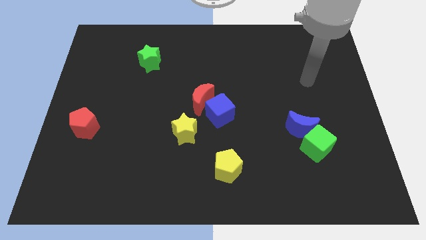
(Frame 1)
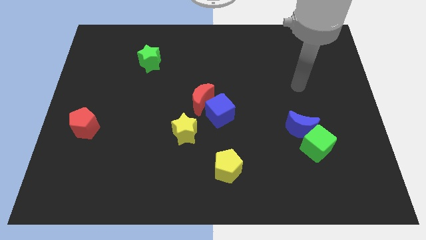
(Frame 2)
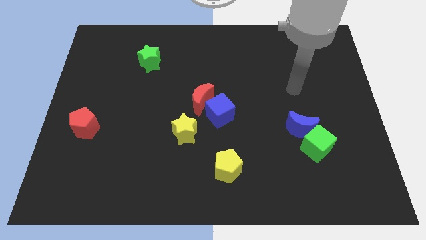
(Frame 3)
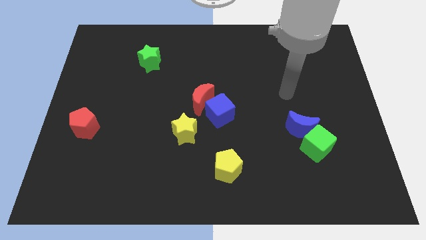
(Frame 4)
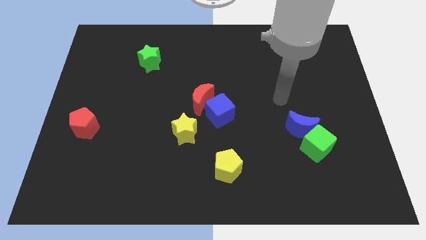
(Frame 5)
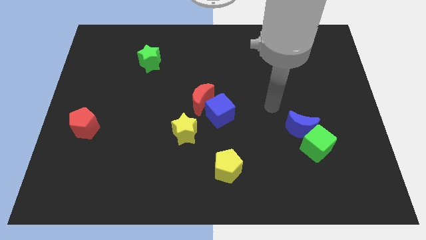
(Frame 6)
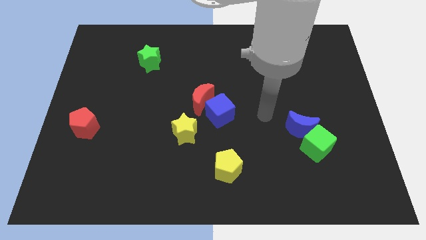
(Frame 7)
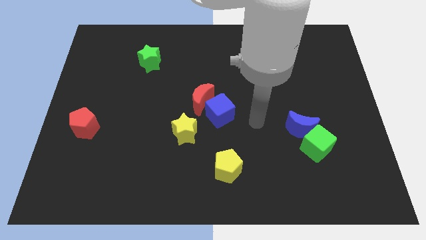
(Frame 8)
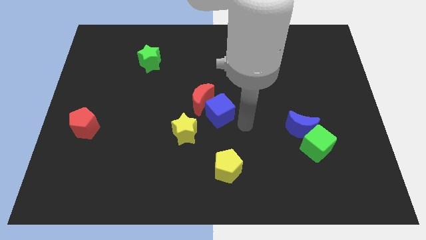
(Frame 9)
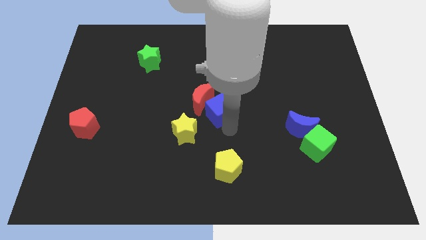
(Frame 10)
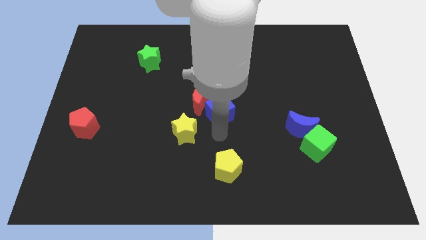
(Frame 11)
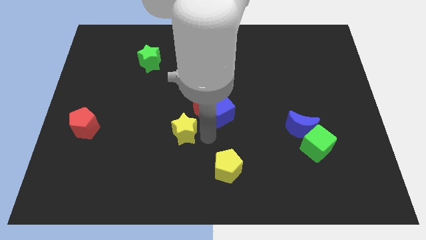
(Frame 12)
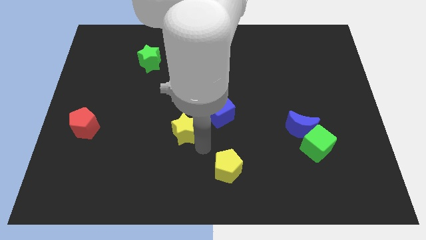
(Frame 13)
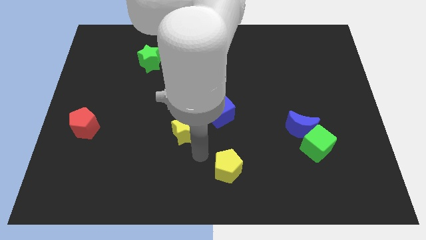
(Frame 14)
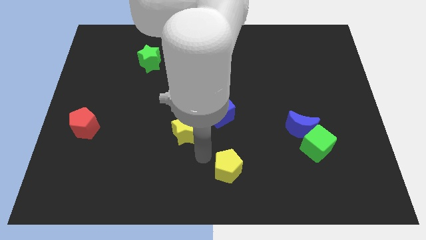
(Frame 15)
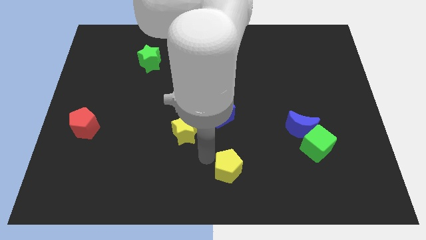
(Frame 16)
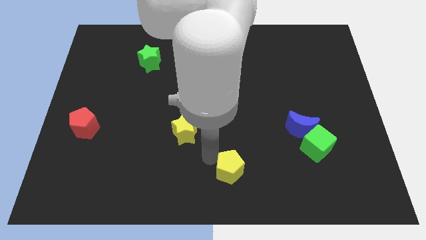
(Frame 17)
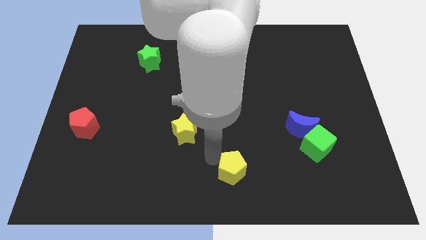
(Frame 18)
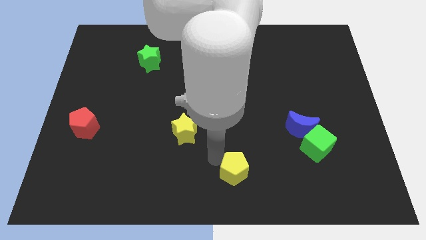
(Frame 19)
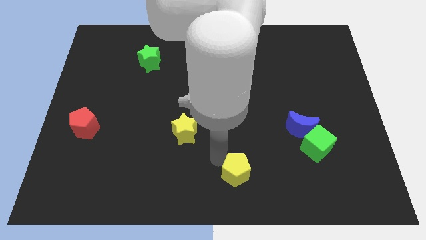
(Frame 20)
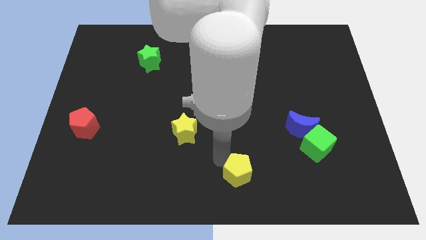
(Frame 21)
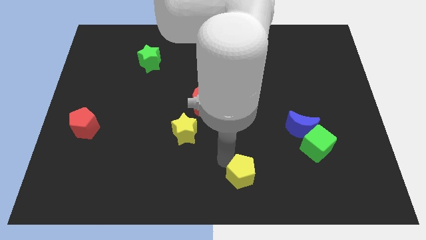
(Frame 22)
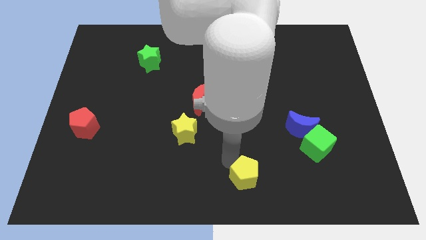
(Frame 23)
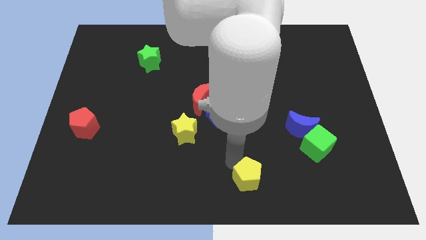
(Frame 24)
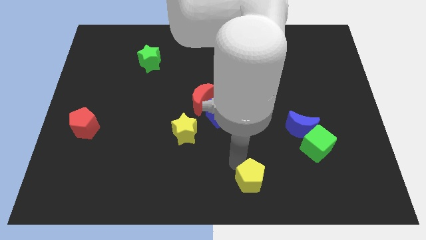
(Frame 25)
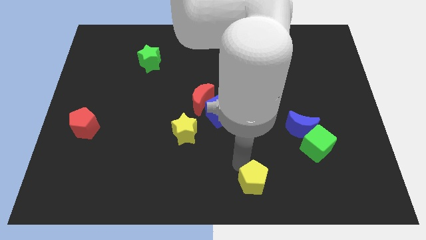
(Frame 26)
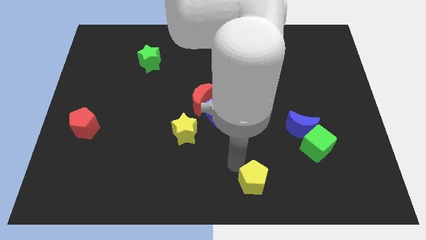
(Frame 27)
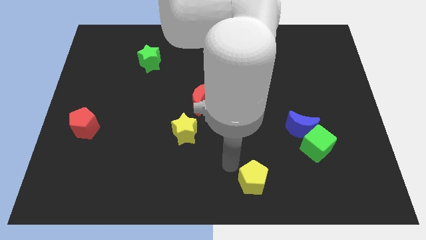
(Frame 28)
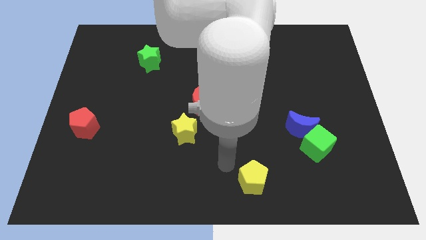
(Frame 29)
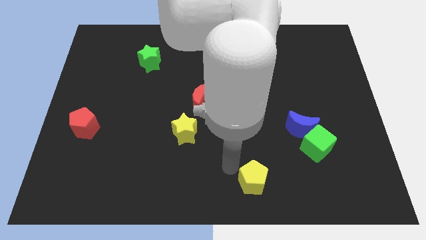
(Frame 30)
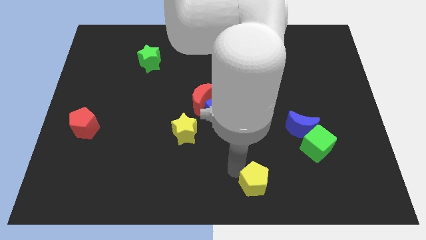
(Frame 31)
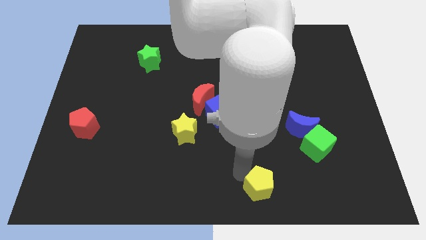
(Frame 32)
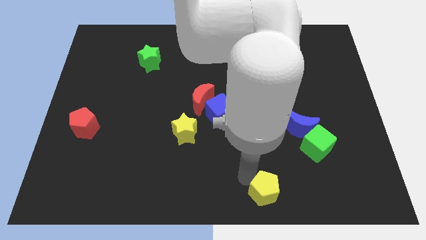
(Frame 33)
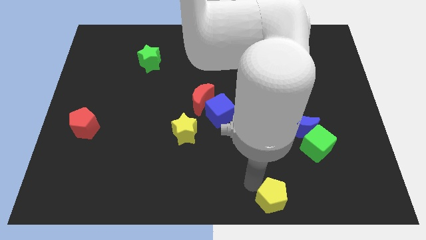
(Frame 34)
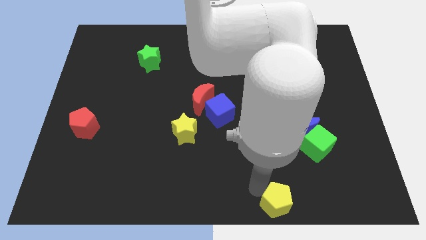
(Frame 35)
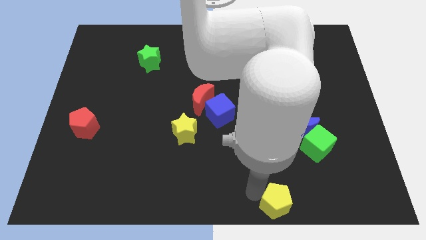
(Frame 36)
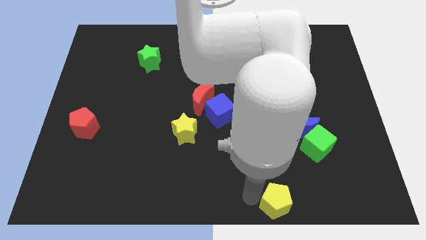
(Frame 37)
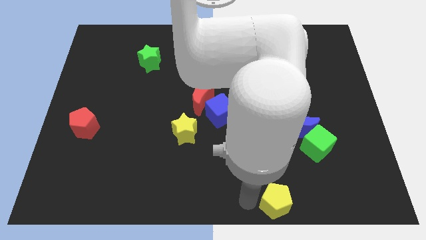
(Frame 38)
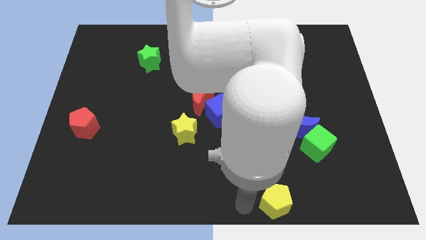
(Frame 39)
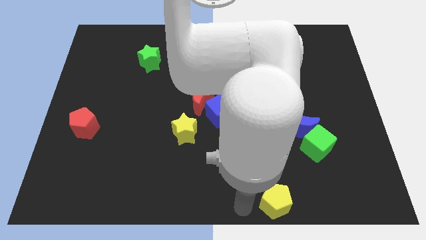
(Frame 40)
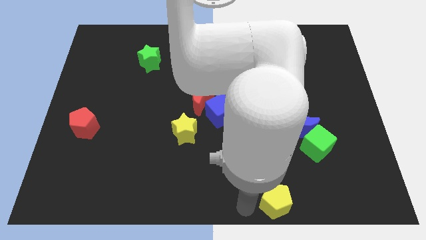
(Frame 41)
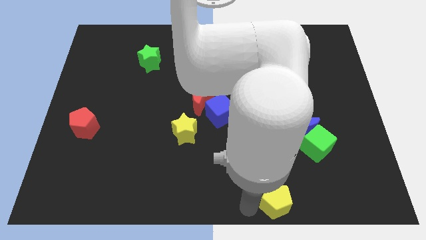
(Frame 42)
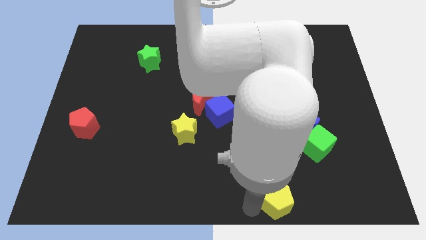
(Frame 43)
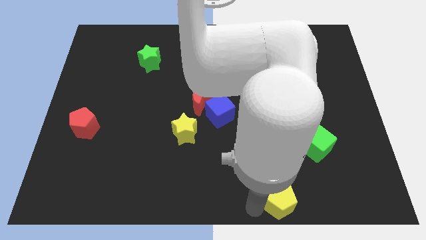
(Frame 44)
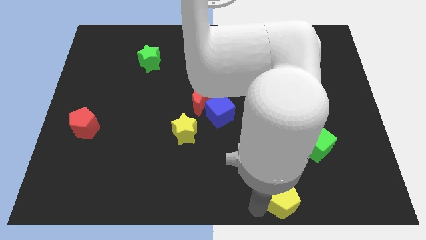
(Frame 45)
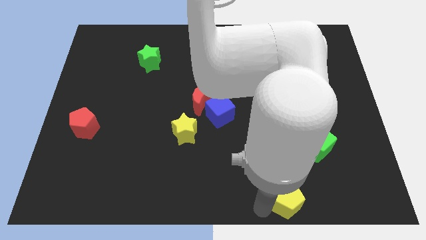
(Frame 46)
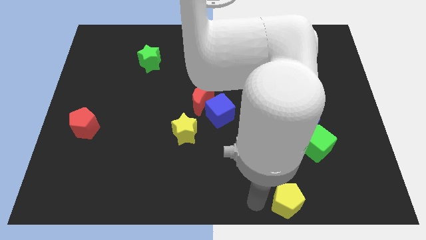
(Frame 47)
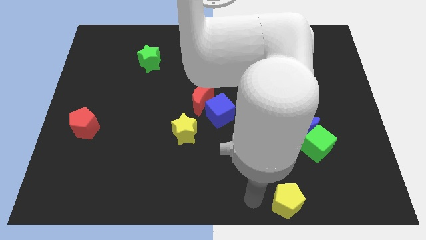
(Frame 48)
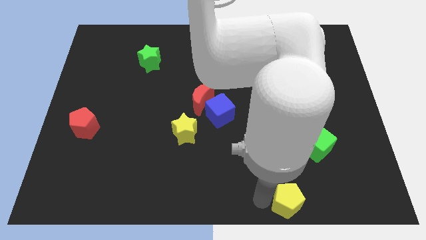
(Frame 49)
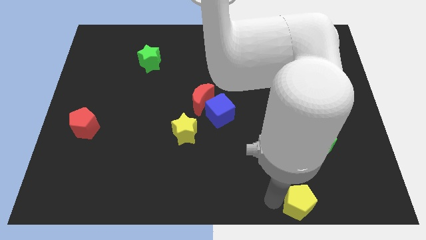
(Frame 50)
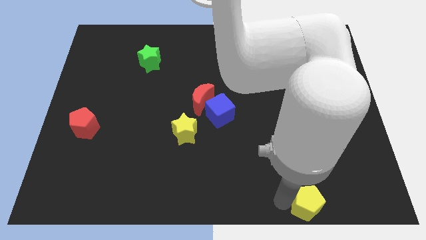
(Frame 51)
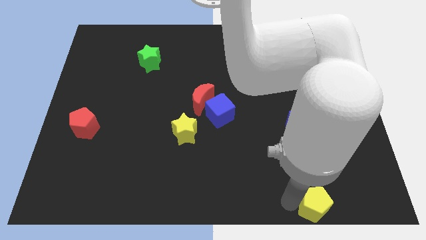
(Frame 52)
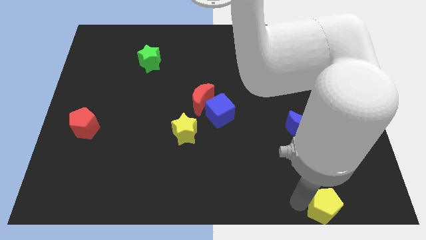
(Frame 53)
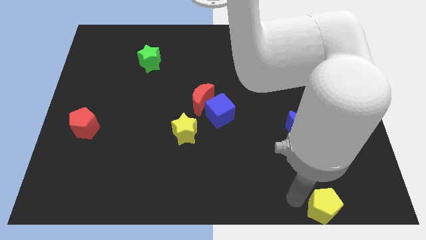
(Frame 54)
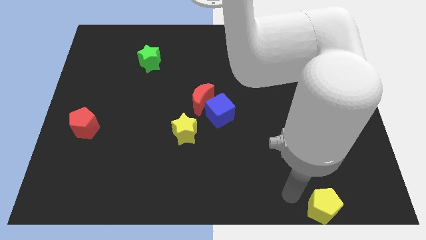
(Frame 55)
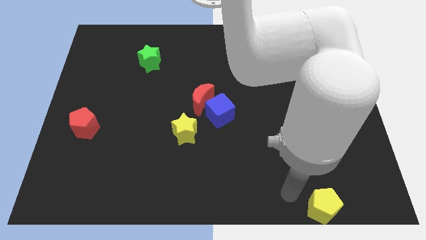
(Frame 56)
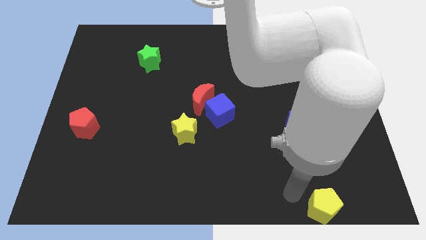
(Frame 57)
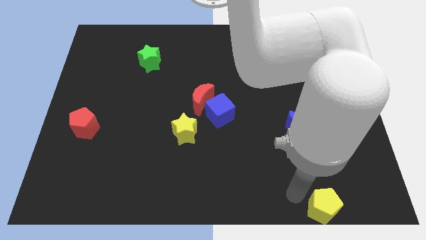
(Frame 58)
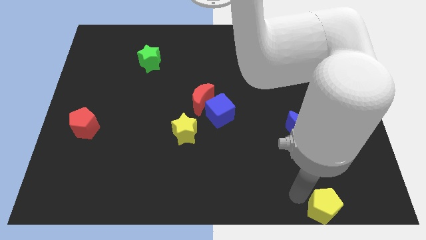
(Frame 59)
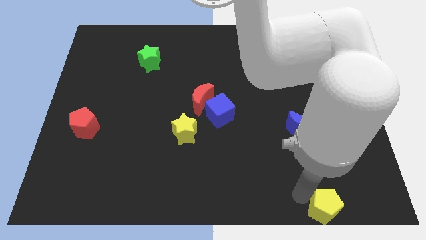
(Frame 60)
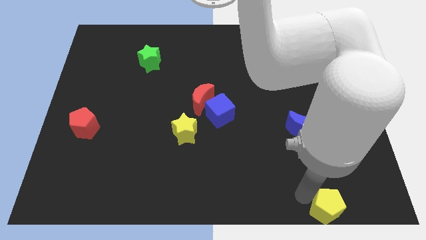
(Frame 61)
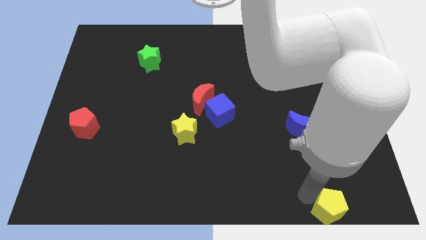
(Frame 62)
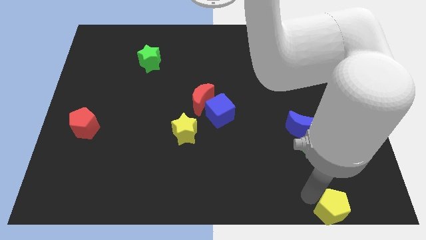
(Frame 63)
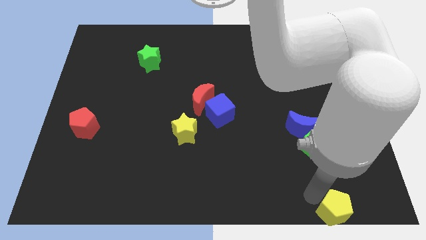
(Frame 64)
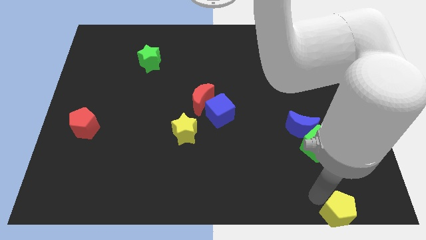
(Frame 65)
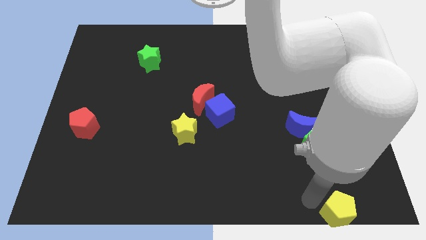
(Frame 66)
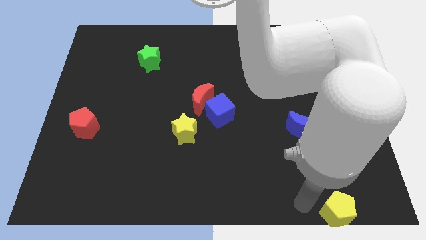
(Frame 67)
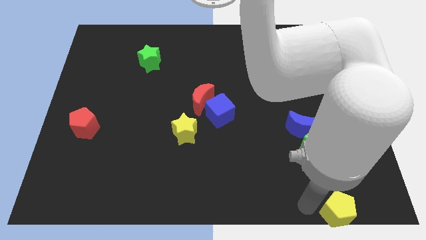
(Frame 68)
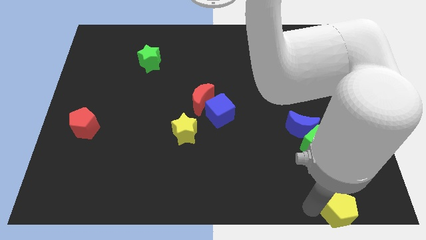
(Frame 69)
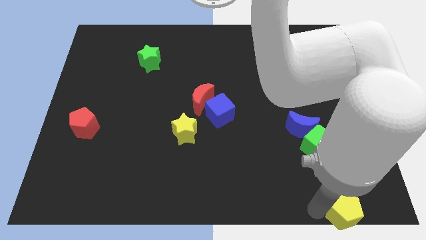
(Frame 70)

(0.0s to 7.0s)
push the yellow pentagon to the bottom right
